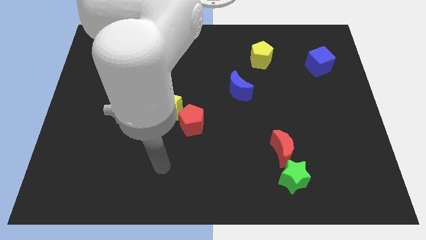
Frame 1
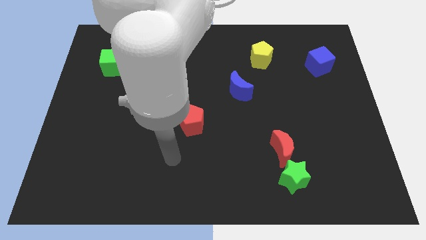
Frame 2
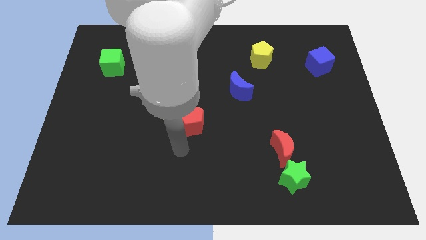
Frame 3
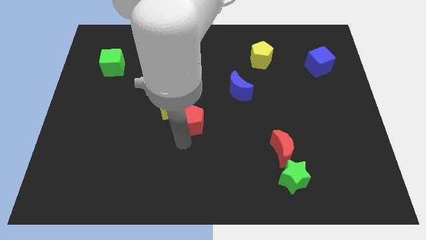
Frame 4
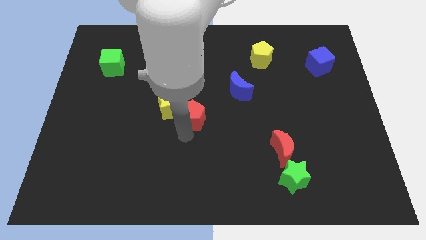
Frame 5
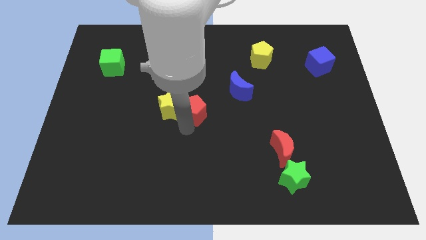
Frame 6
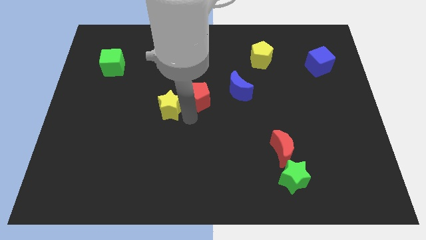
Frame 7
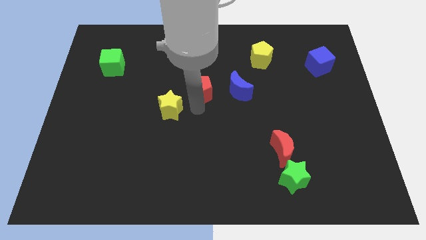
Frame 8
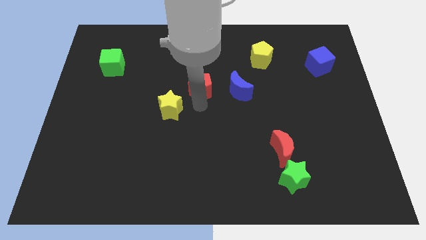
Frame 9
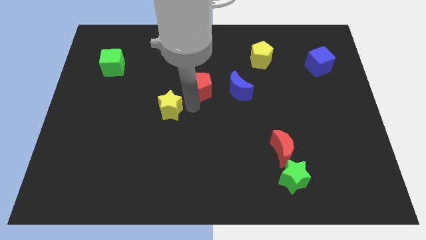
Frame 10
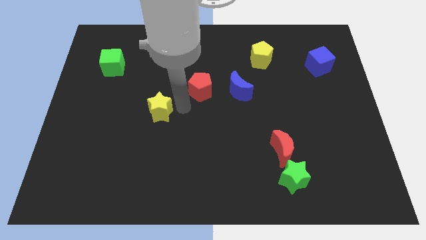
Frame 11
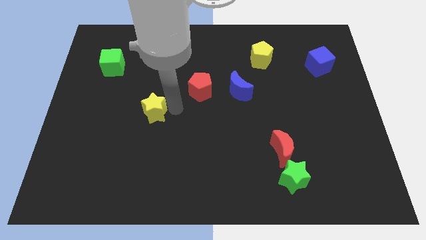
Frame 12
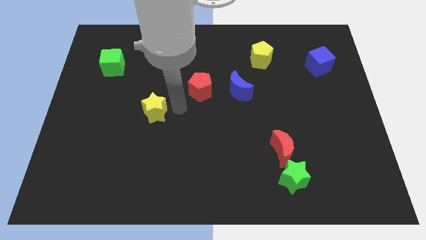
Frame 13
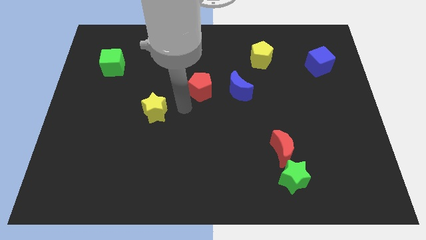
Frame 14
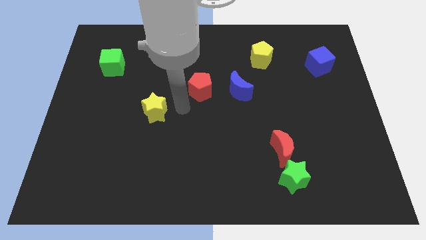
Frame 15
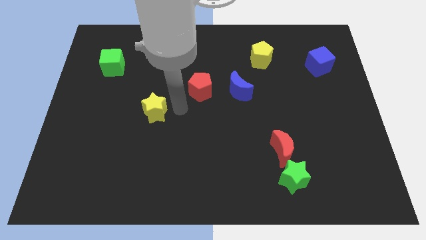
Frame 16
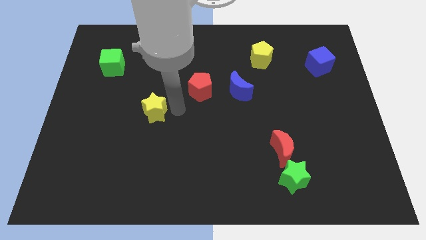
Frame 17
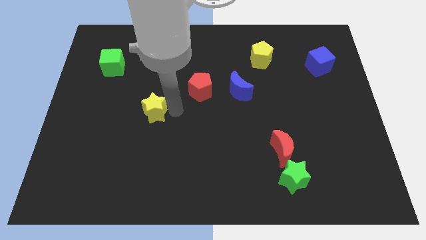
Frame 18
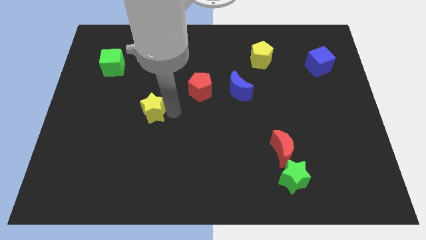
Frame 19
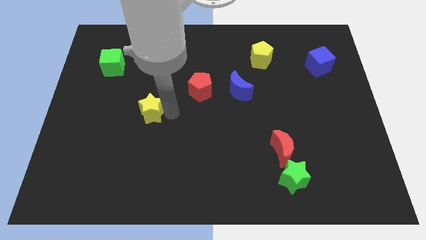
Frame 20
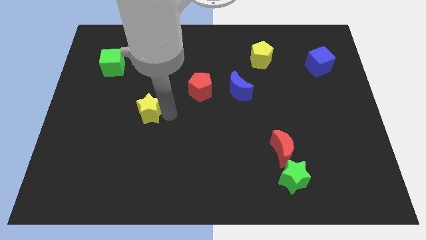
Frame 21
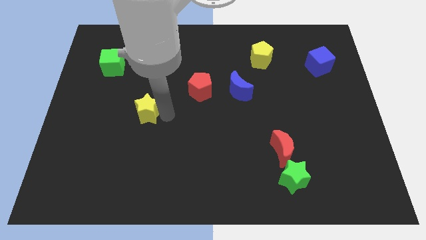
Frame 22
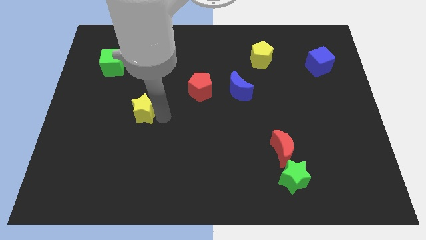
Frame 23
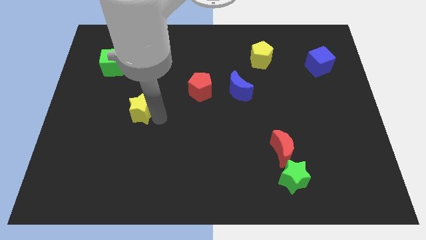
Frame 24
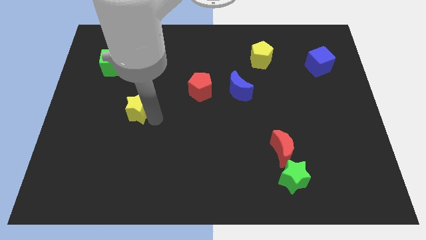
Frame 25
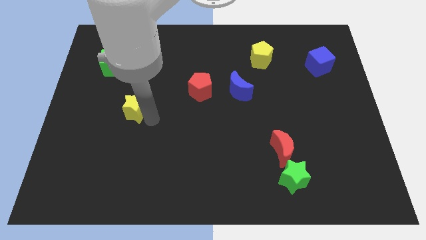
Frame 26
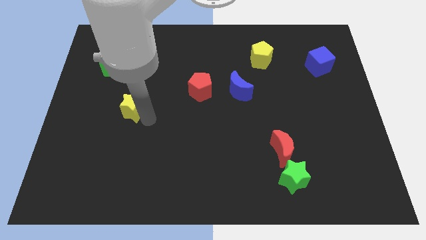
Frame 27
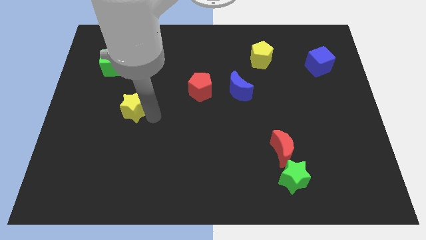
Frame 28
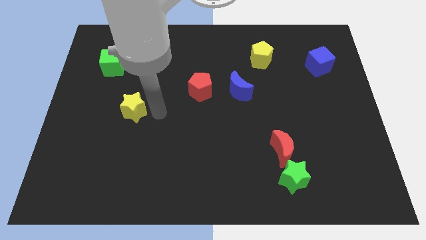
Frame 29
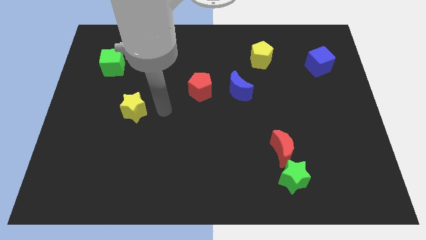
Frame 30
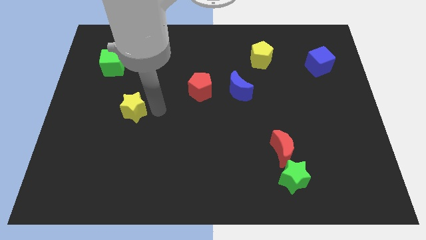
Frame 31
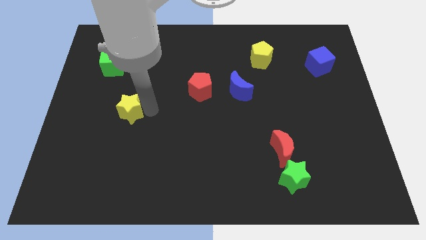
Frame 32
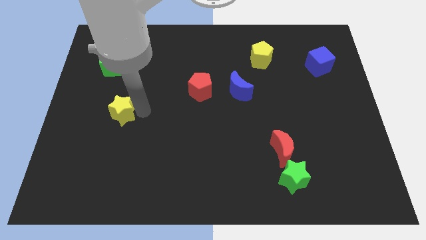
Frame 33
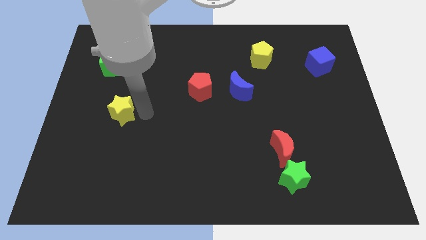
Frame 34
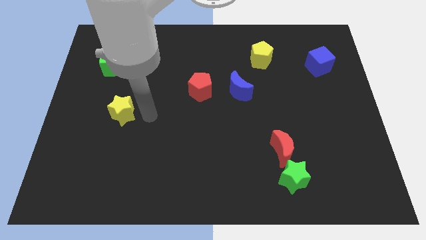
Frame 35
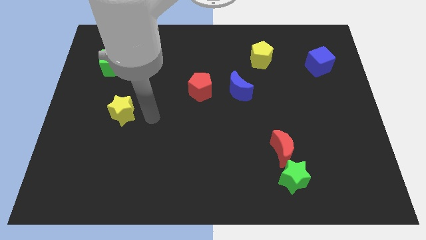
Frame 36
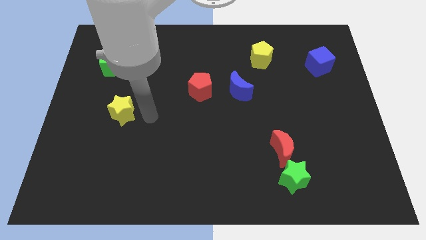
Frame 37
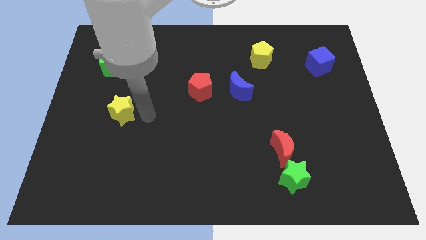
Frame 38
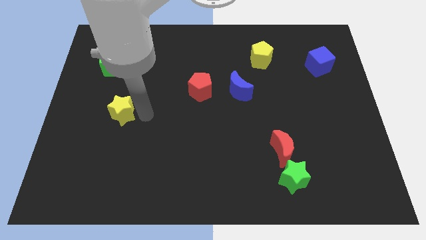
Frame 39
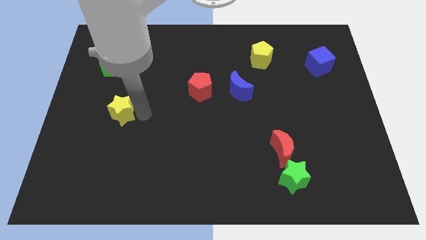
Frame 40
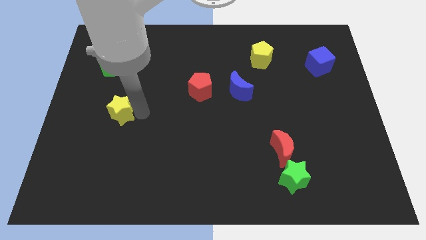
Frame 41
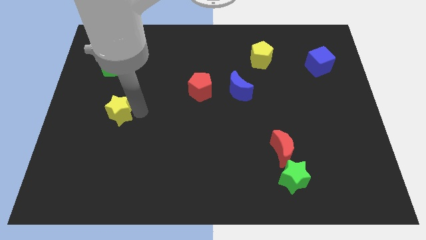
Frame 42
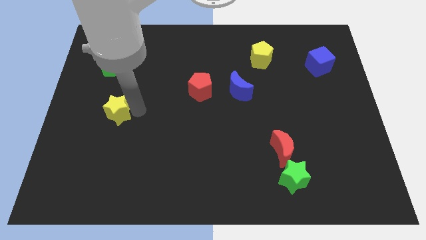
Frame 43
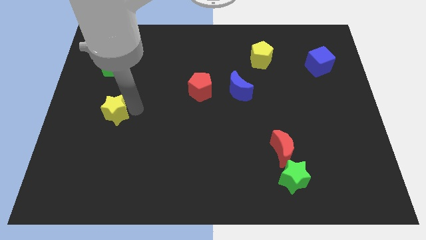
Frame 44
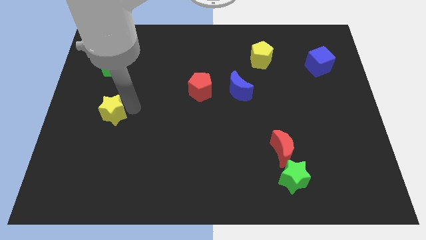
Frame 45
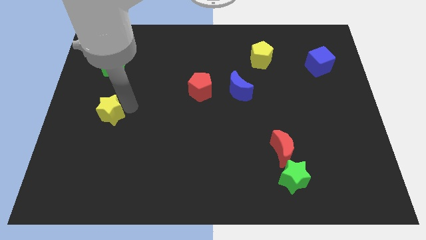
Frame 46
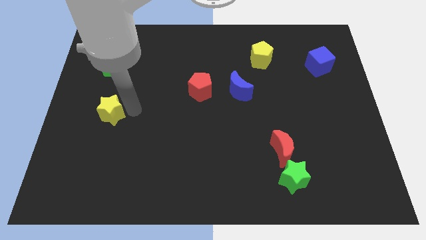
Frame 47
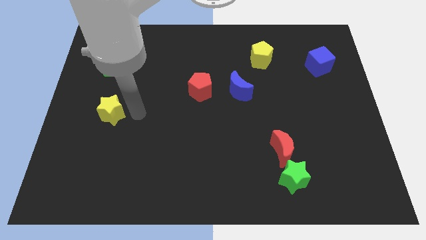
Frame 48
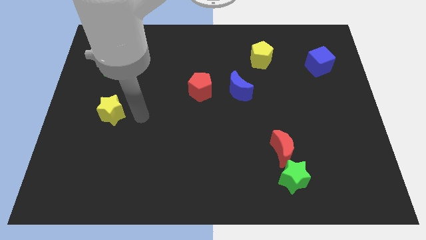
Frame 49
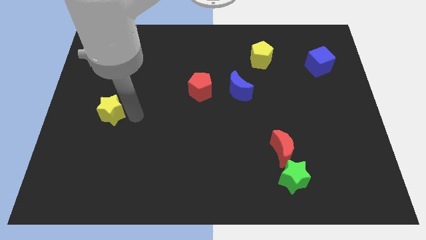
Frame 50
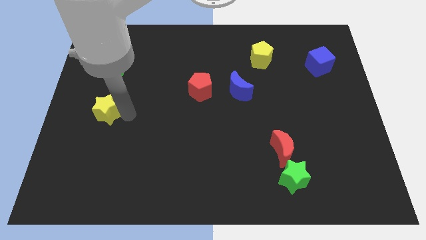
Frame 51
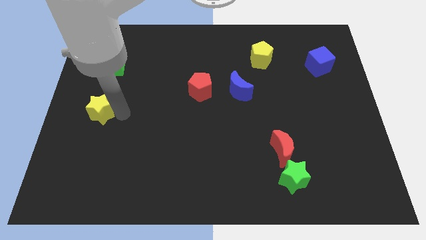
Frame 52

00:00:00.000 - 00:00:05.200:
move the yellow star to the center left
